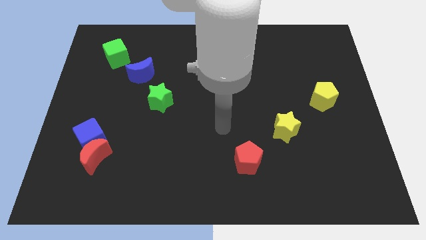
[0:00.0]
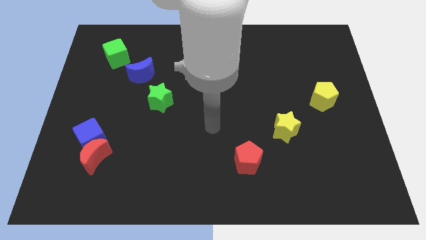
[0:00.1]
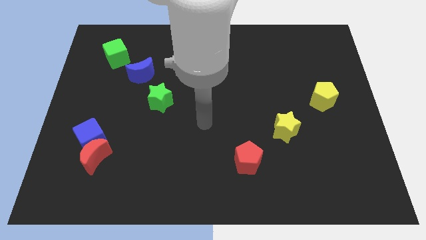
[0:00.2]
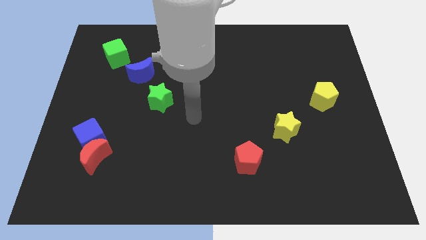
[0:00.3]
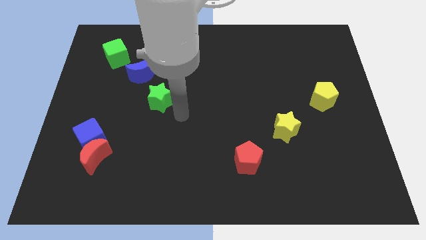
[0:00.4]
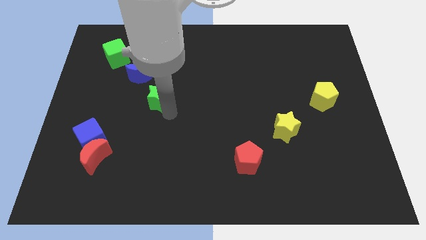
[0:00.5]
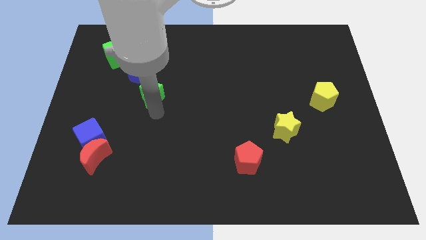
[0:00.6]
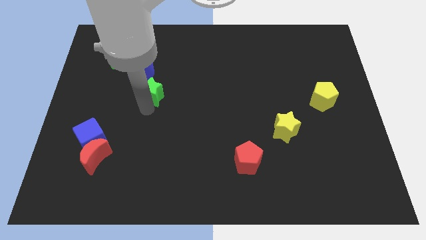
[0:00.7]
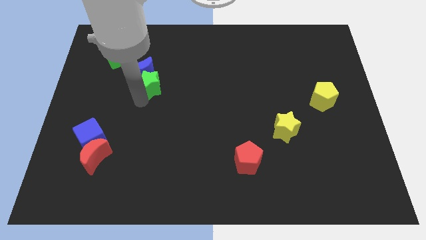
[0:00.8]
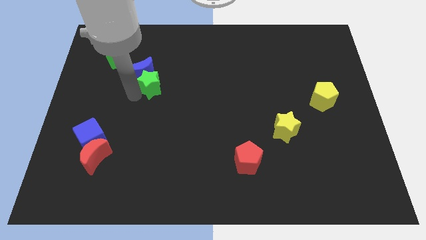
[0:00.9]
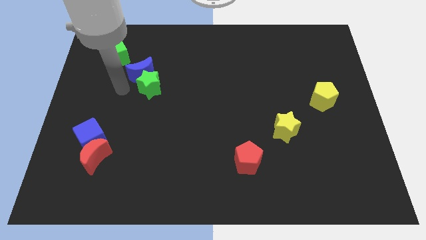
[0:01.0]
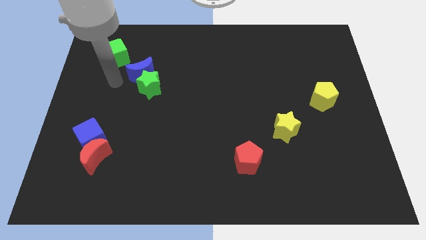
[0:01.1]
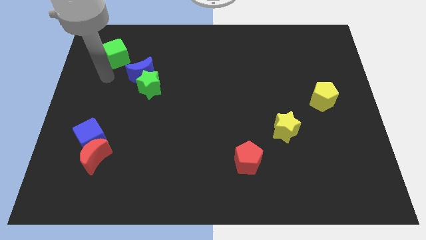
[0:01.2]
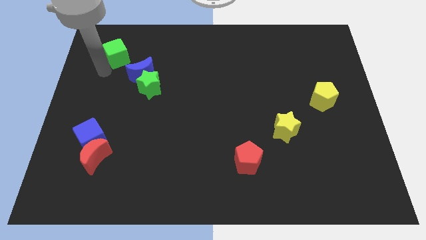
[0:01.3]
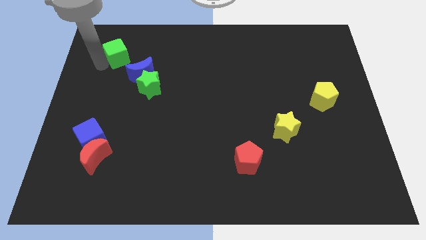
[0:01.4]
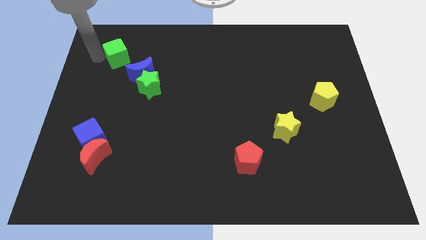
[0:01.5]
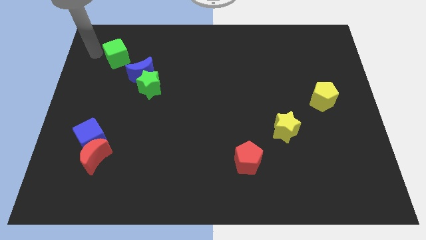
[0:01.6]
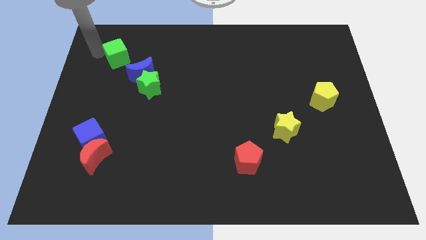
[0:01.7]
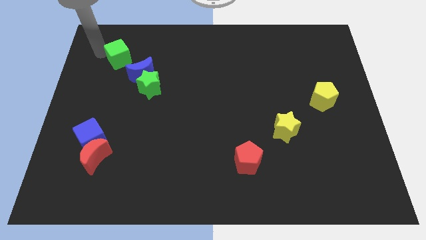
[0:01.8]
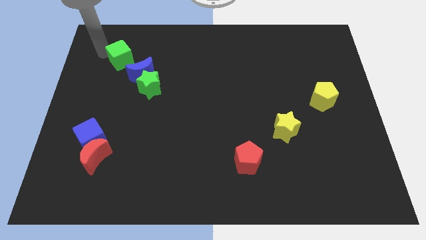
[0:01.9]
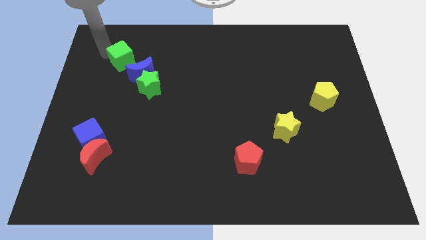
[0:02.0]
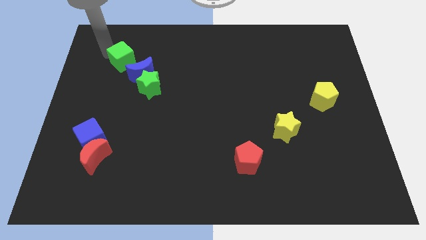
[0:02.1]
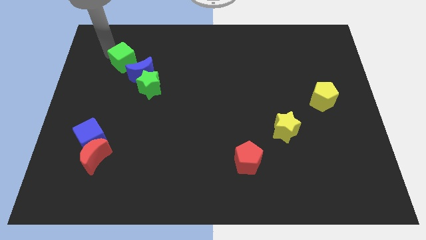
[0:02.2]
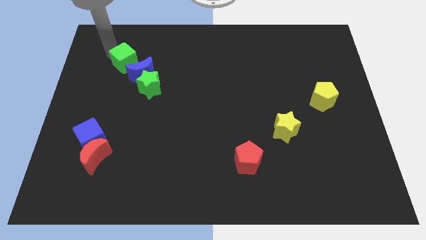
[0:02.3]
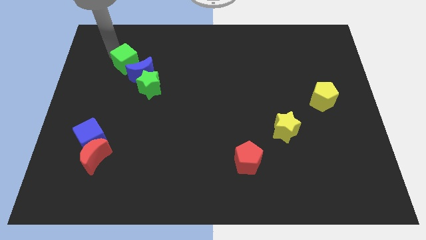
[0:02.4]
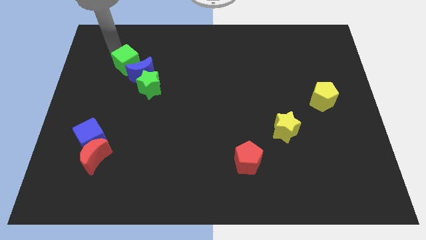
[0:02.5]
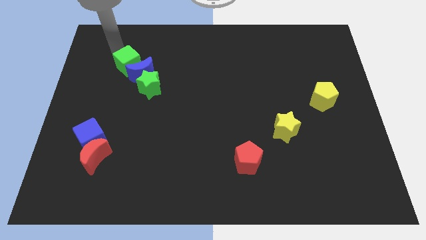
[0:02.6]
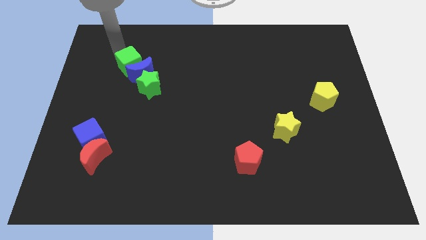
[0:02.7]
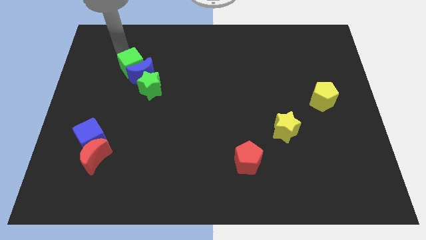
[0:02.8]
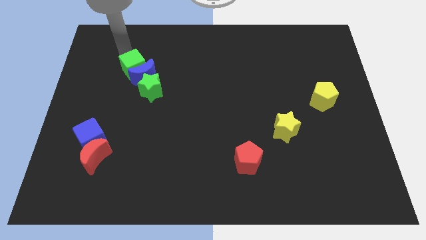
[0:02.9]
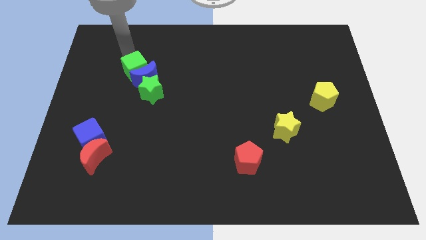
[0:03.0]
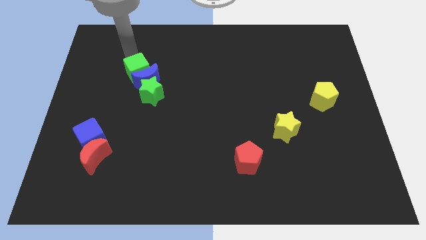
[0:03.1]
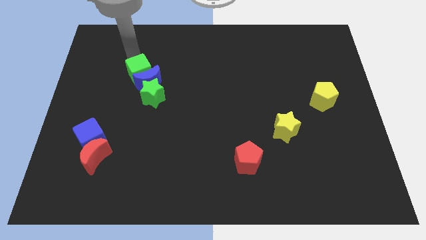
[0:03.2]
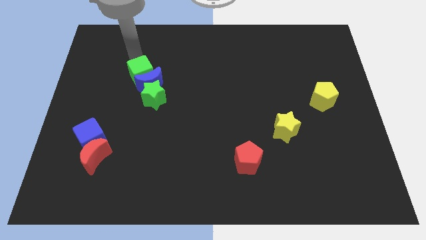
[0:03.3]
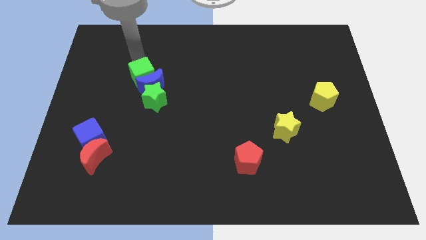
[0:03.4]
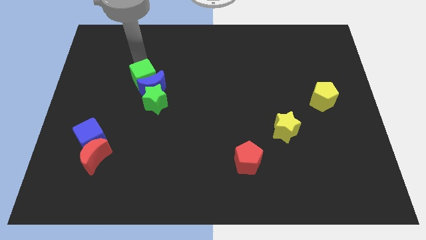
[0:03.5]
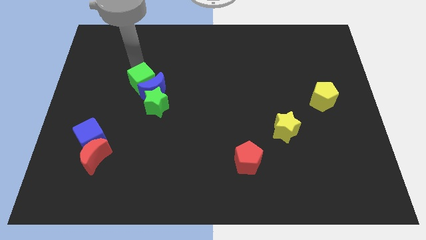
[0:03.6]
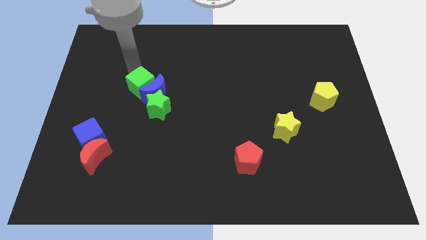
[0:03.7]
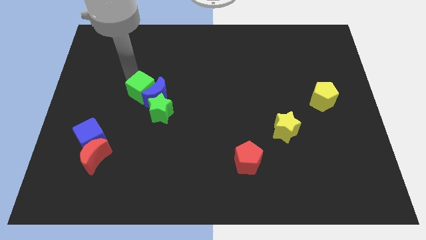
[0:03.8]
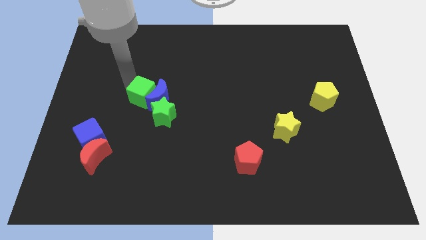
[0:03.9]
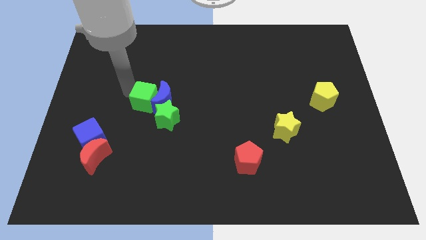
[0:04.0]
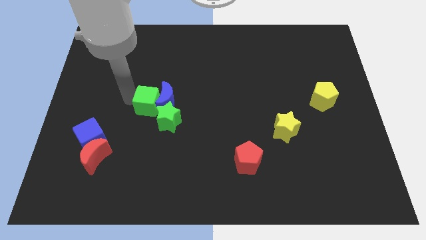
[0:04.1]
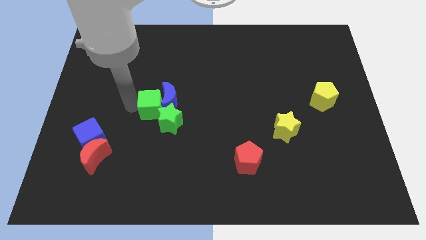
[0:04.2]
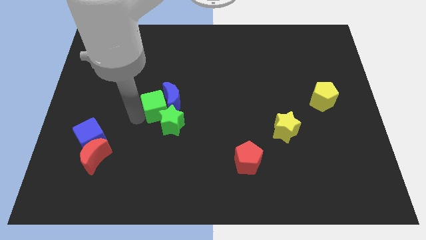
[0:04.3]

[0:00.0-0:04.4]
move the green cube downwards and to the right diagonally

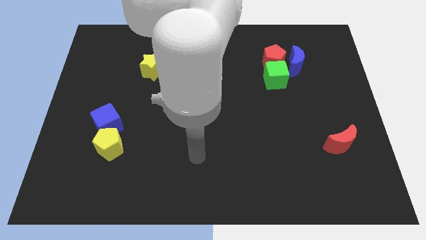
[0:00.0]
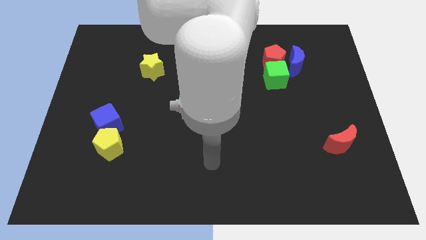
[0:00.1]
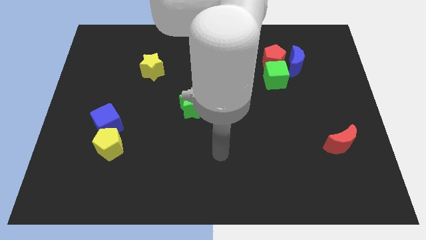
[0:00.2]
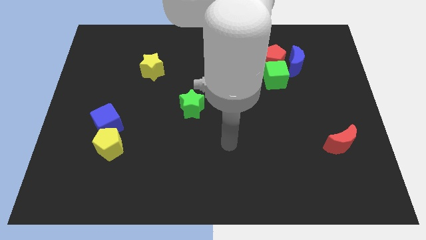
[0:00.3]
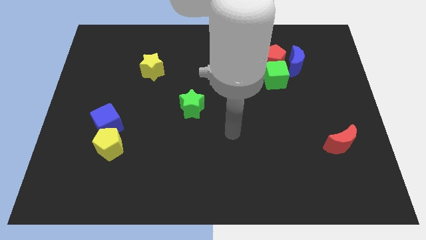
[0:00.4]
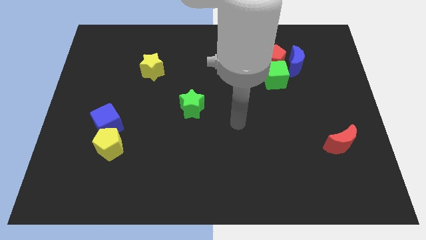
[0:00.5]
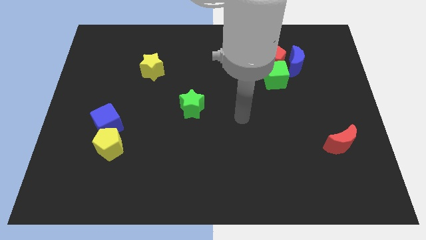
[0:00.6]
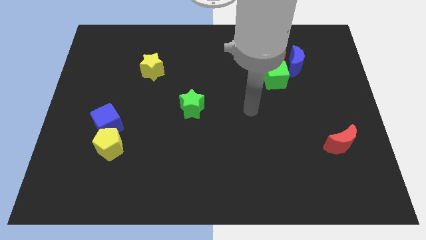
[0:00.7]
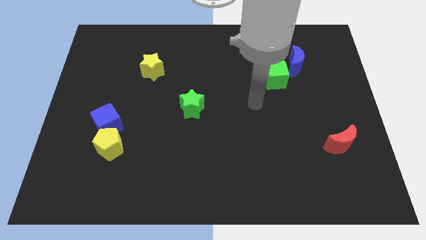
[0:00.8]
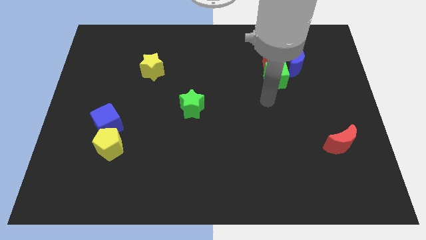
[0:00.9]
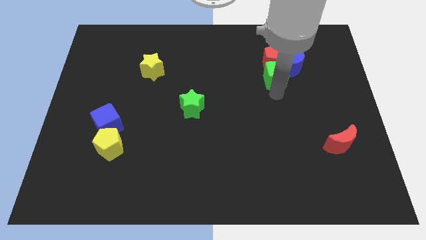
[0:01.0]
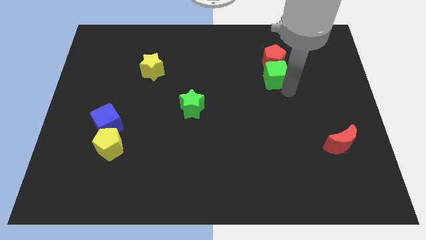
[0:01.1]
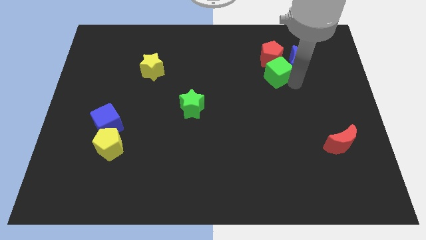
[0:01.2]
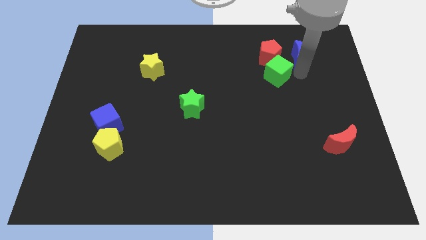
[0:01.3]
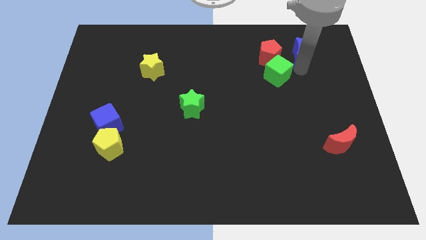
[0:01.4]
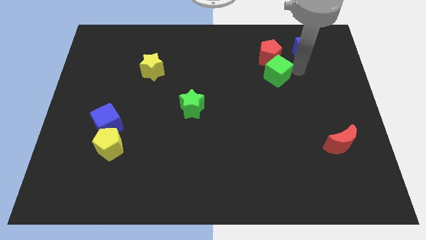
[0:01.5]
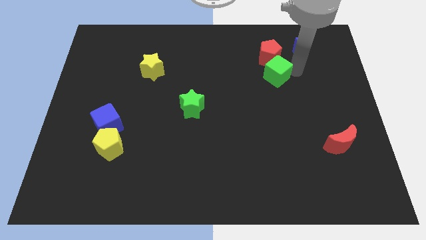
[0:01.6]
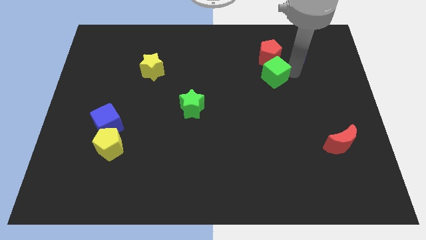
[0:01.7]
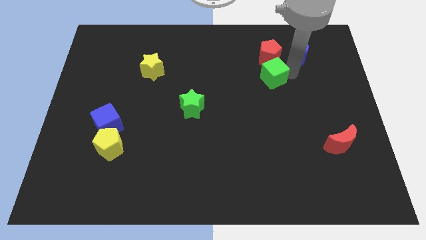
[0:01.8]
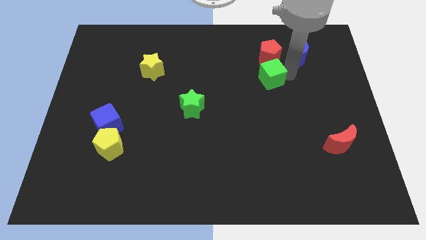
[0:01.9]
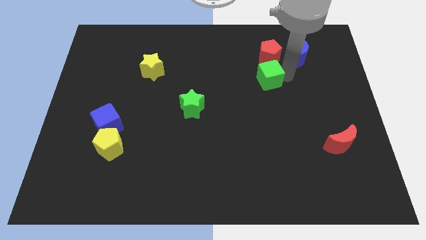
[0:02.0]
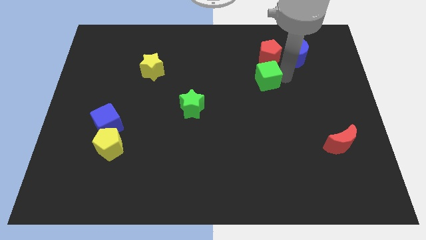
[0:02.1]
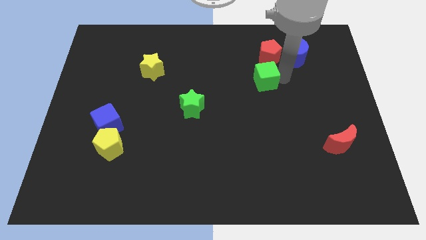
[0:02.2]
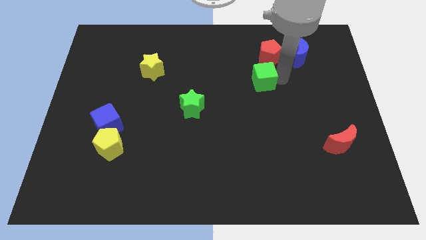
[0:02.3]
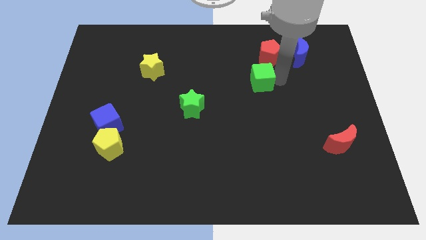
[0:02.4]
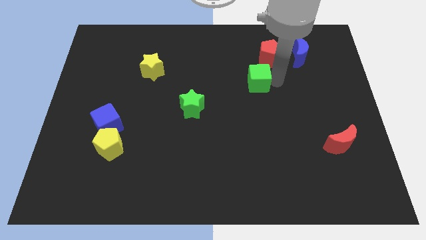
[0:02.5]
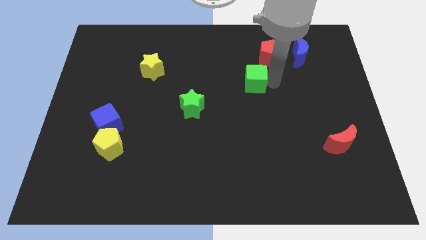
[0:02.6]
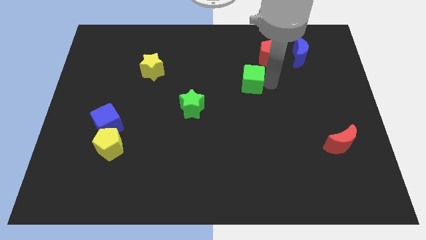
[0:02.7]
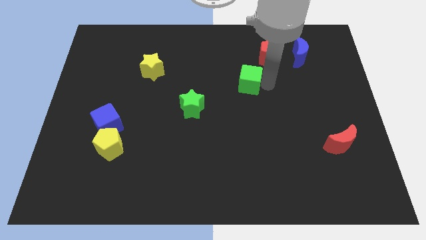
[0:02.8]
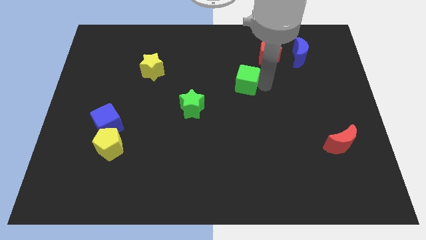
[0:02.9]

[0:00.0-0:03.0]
push the green cube to the left a bit

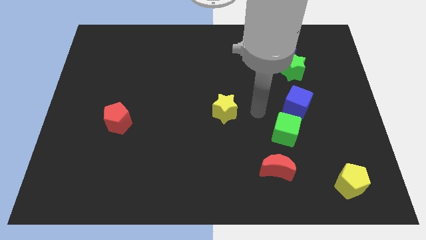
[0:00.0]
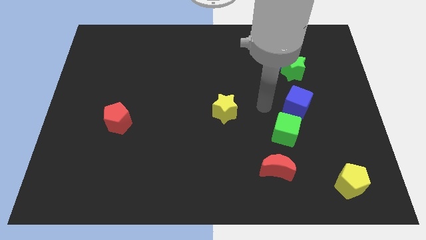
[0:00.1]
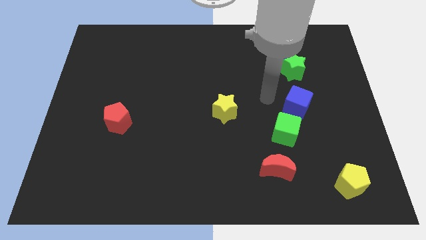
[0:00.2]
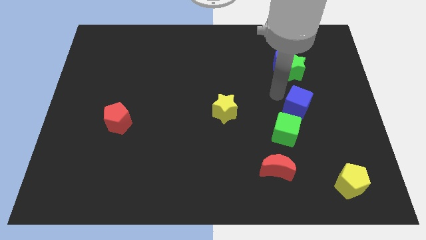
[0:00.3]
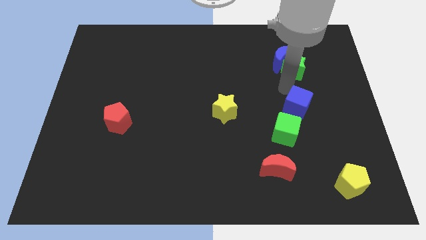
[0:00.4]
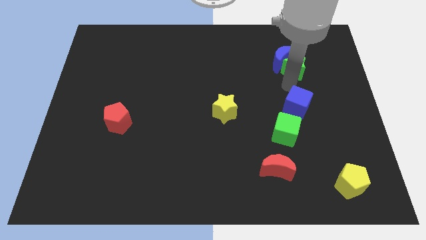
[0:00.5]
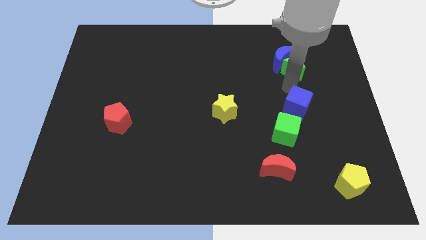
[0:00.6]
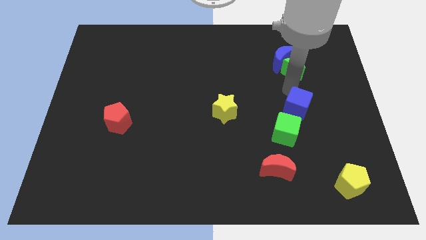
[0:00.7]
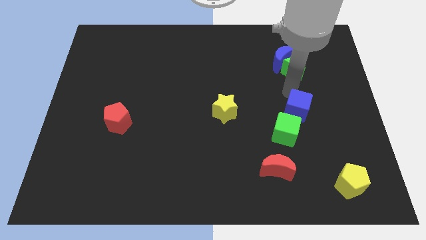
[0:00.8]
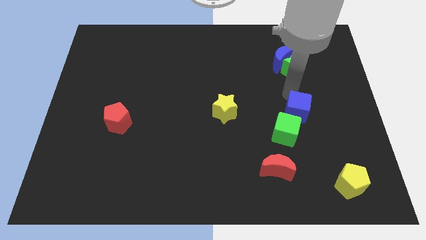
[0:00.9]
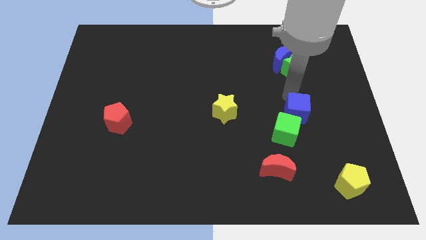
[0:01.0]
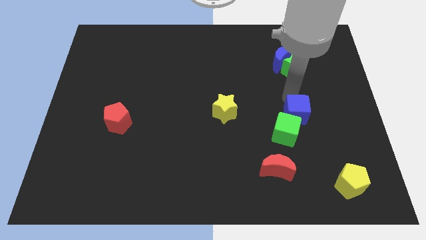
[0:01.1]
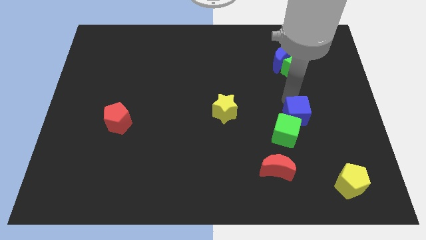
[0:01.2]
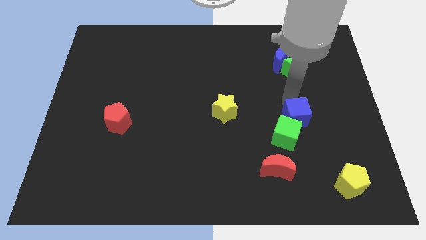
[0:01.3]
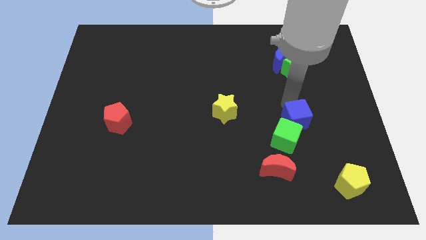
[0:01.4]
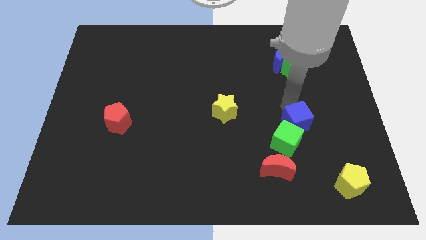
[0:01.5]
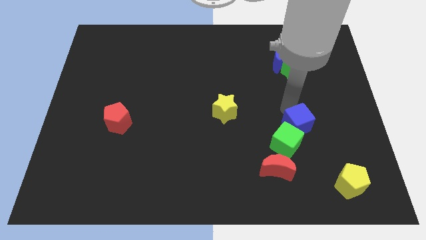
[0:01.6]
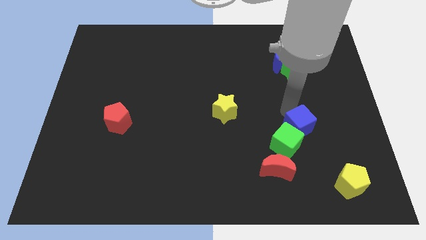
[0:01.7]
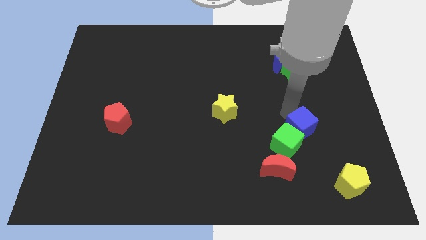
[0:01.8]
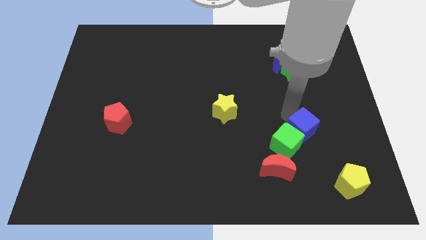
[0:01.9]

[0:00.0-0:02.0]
slide the blue cube slightly downwards
